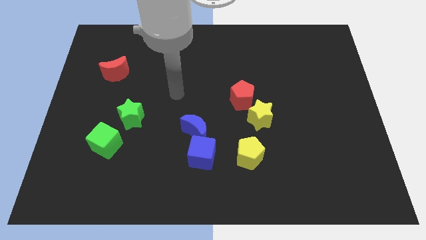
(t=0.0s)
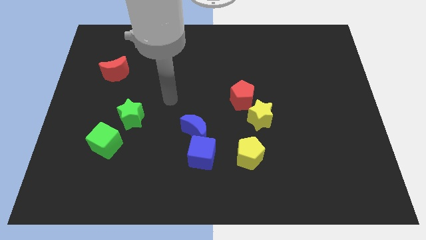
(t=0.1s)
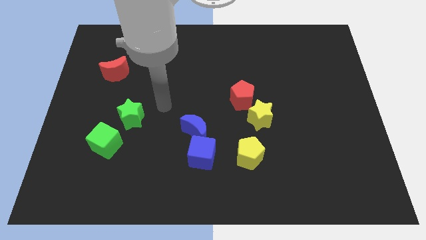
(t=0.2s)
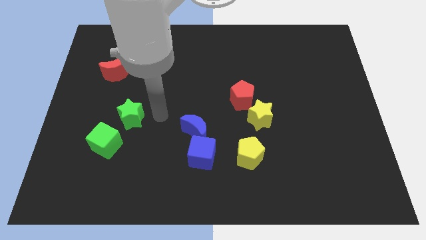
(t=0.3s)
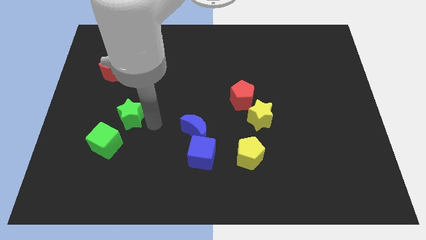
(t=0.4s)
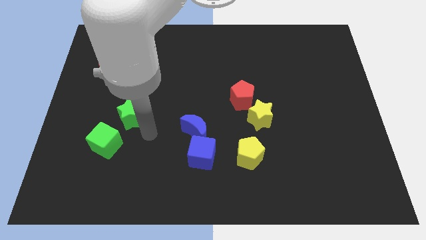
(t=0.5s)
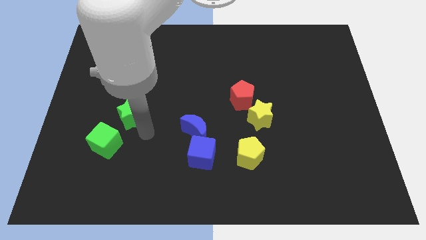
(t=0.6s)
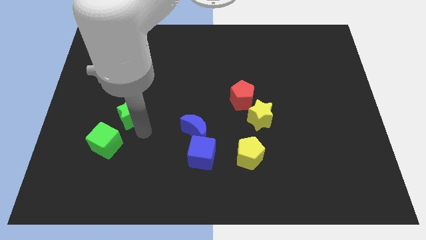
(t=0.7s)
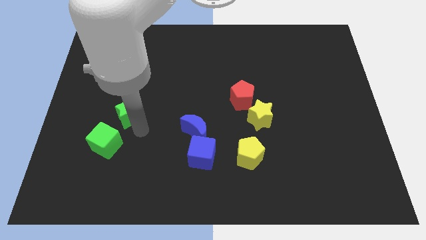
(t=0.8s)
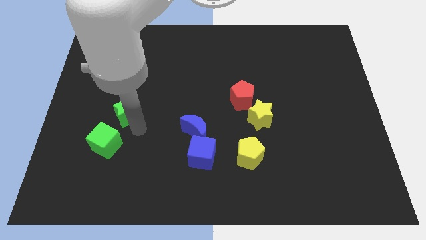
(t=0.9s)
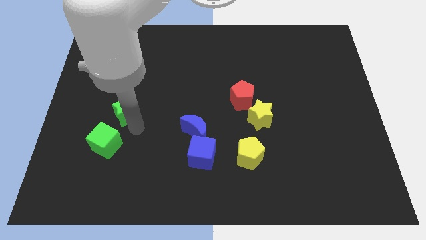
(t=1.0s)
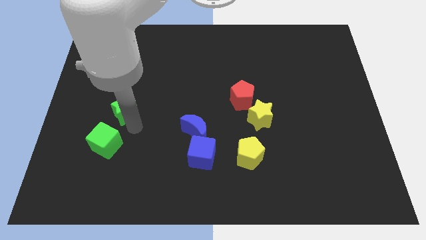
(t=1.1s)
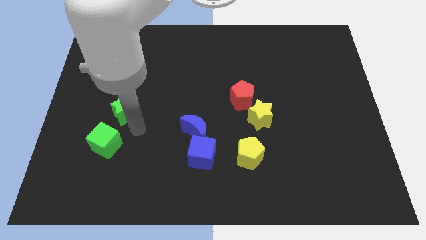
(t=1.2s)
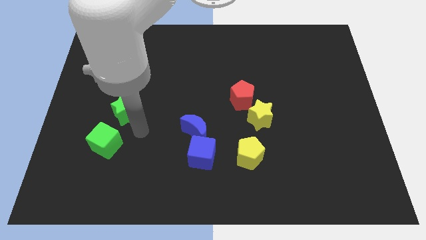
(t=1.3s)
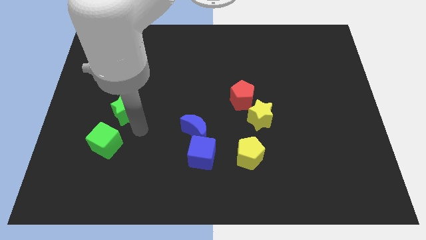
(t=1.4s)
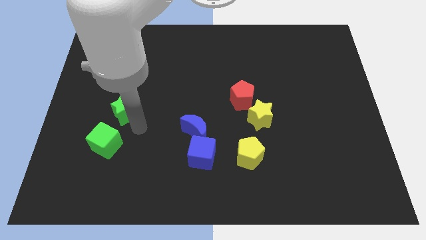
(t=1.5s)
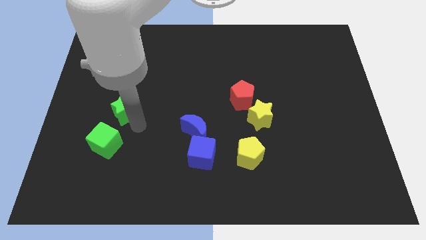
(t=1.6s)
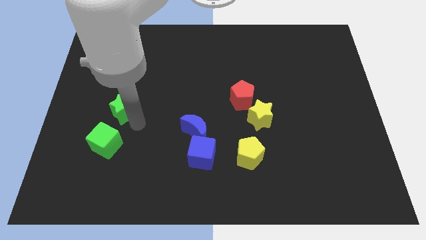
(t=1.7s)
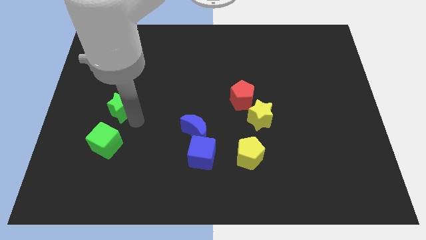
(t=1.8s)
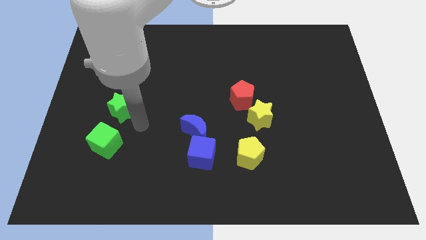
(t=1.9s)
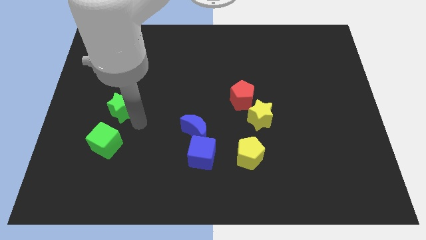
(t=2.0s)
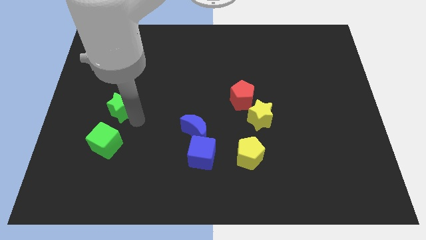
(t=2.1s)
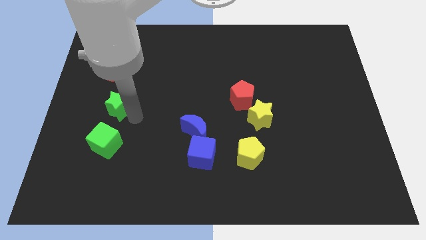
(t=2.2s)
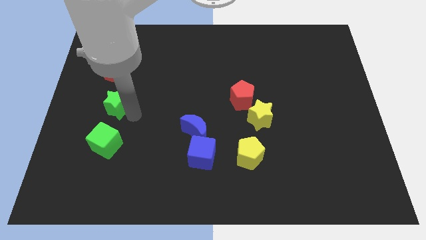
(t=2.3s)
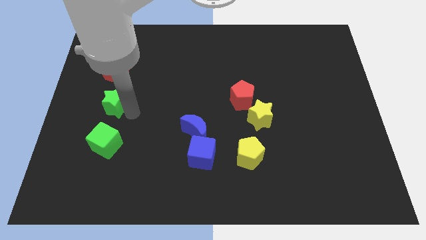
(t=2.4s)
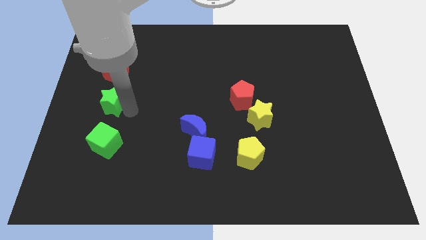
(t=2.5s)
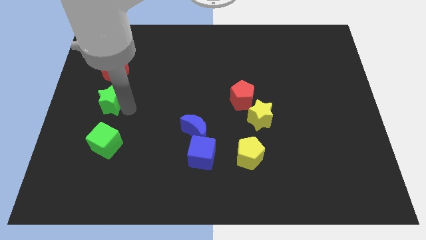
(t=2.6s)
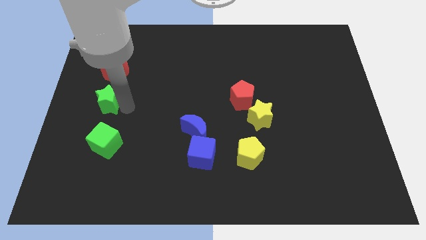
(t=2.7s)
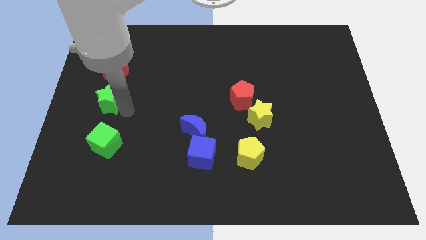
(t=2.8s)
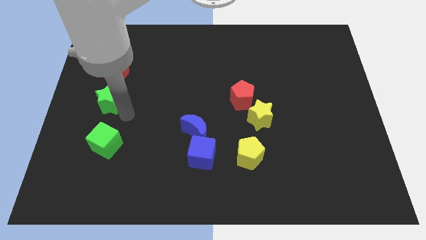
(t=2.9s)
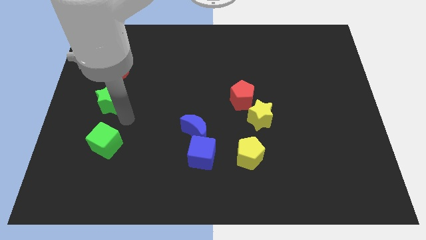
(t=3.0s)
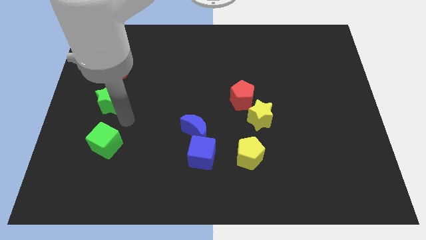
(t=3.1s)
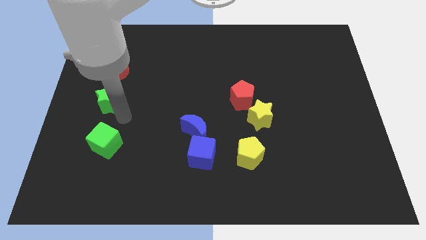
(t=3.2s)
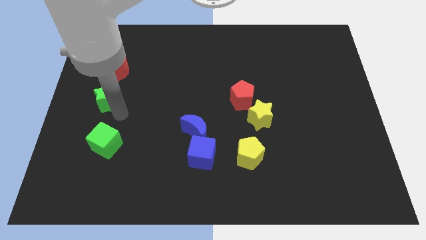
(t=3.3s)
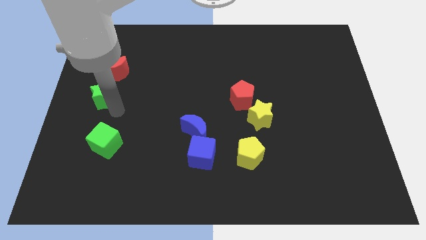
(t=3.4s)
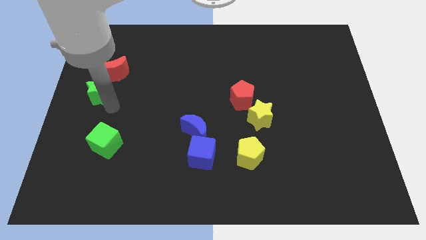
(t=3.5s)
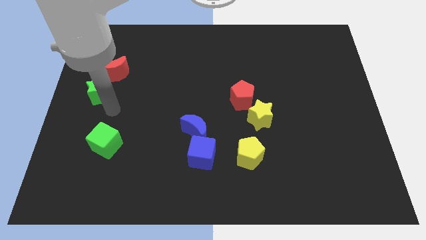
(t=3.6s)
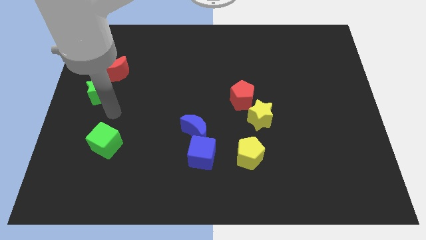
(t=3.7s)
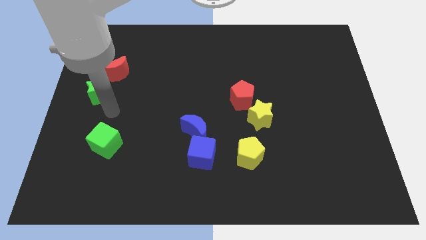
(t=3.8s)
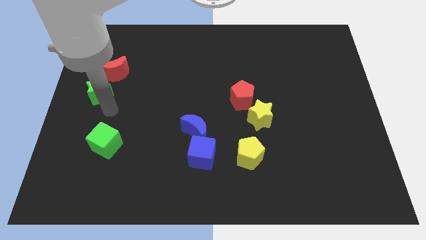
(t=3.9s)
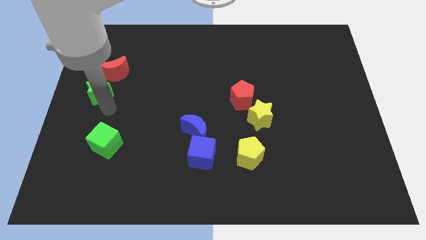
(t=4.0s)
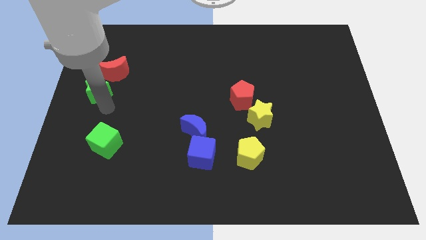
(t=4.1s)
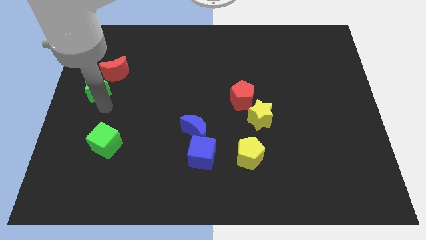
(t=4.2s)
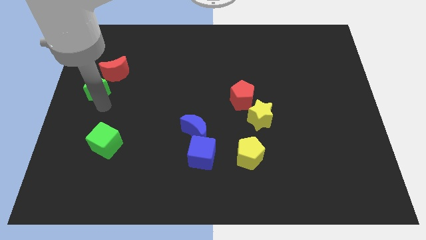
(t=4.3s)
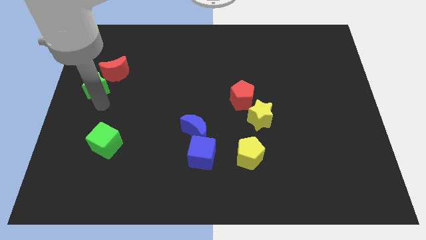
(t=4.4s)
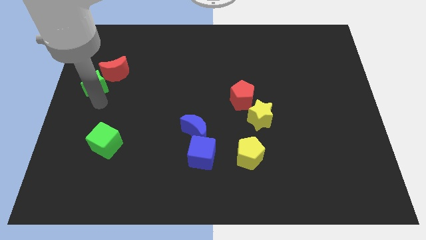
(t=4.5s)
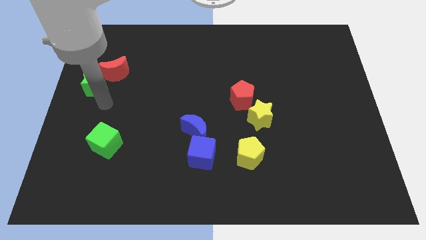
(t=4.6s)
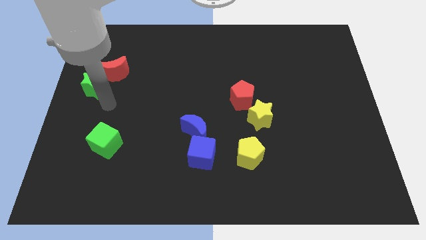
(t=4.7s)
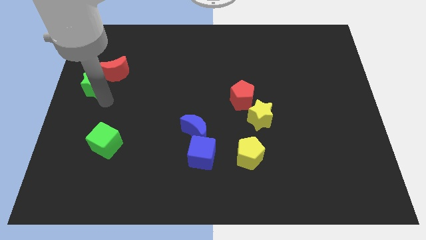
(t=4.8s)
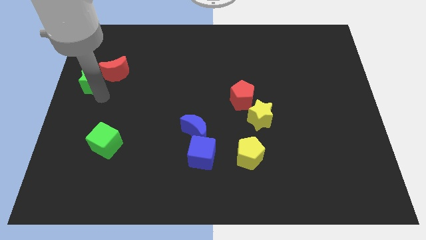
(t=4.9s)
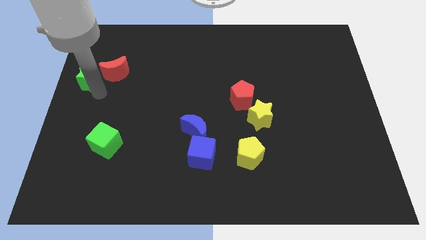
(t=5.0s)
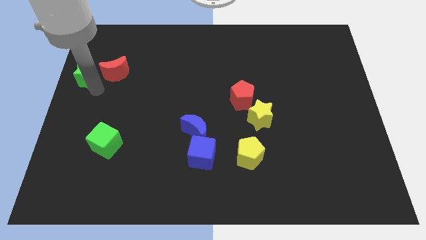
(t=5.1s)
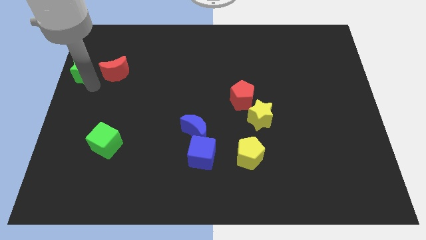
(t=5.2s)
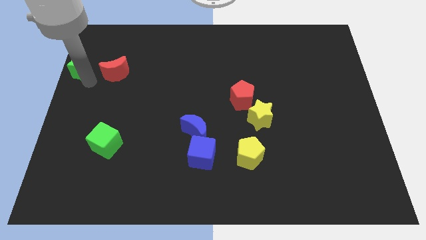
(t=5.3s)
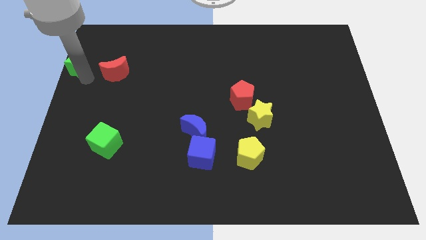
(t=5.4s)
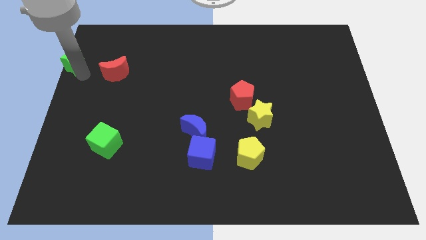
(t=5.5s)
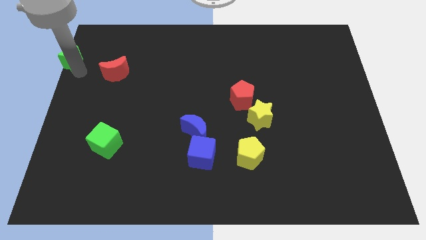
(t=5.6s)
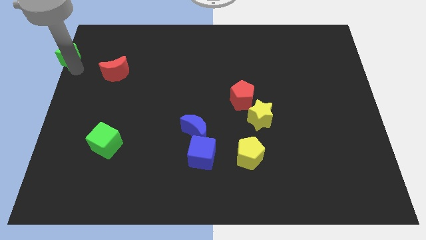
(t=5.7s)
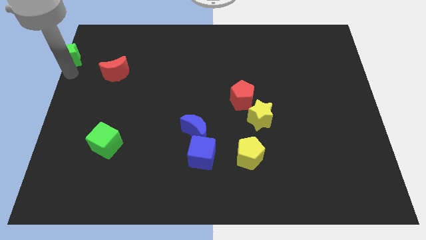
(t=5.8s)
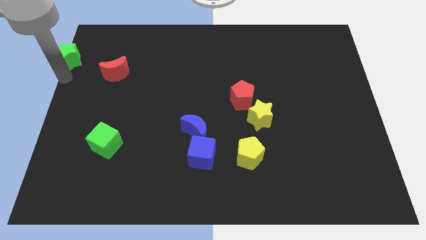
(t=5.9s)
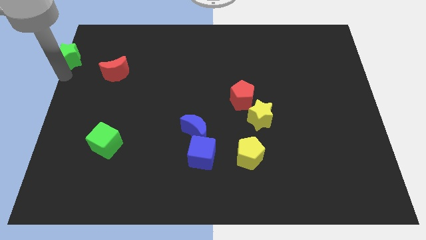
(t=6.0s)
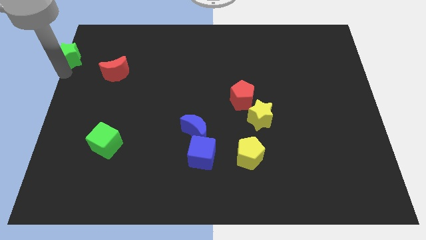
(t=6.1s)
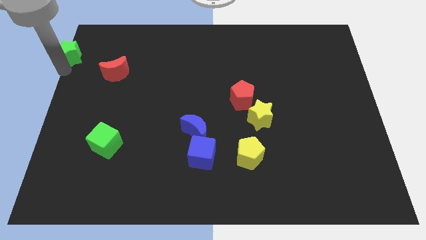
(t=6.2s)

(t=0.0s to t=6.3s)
slide the green star to the top left corner

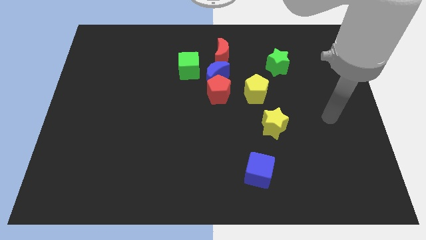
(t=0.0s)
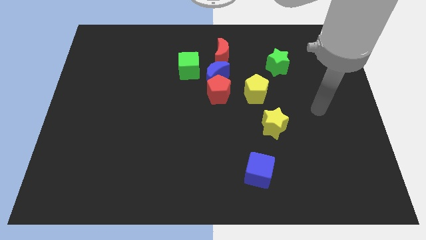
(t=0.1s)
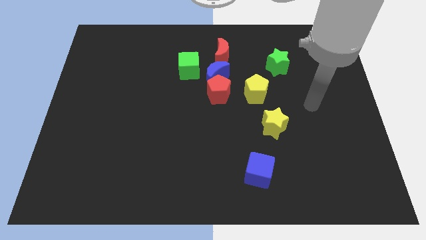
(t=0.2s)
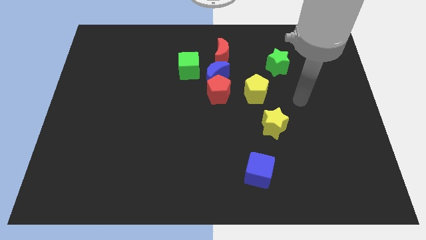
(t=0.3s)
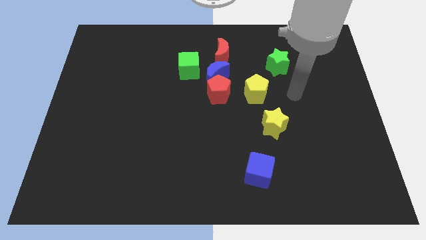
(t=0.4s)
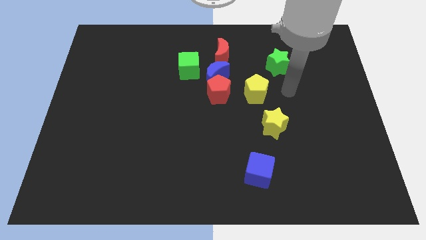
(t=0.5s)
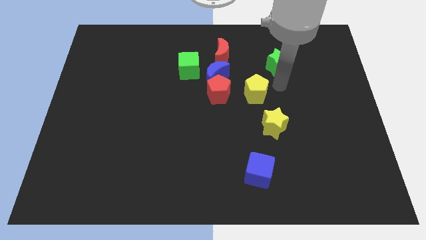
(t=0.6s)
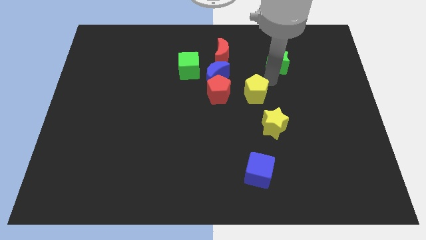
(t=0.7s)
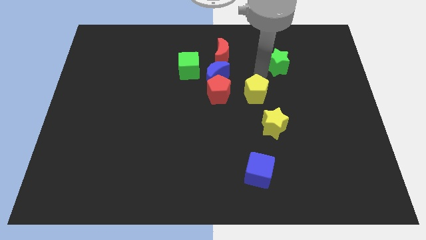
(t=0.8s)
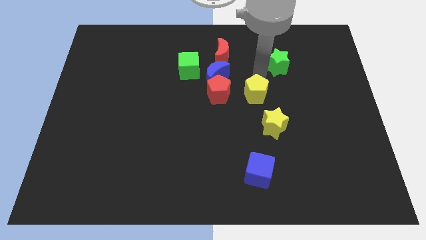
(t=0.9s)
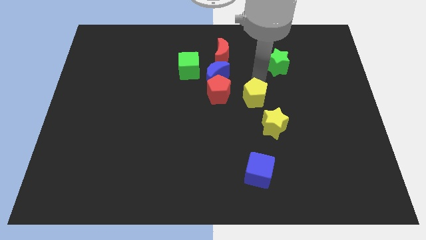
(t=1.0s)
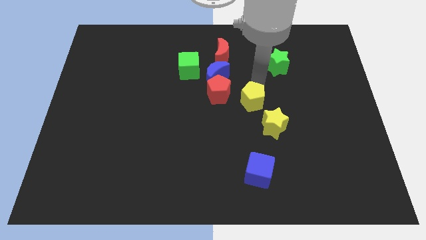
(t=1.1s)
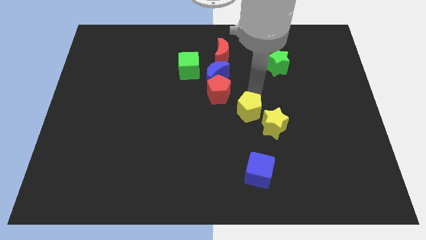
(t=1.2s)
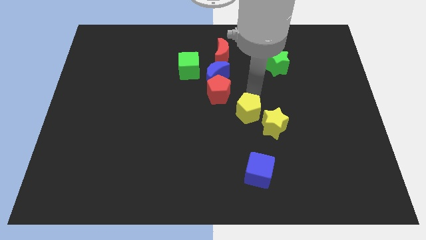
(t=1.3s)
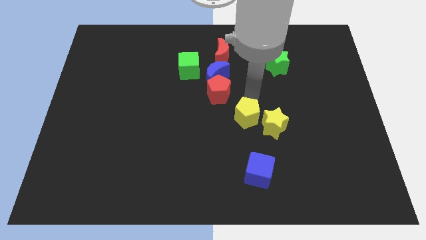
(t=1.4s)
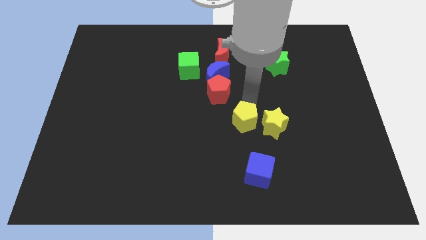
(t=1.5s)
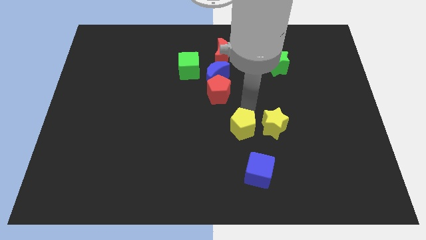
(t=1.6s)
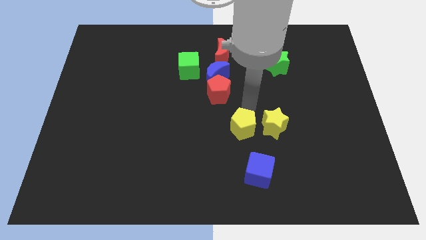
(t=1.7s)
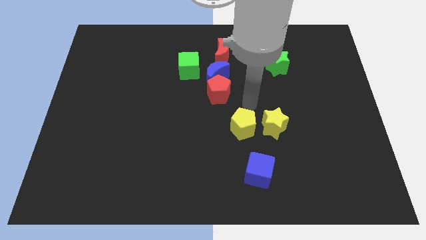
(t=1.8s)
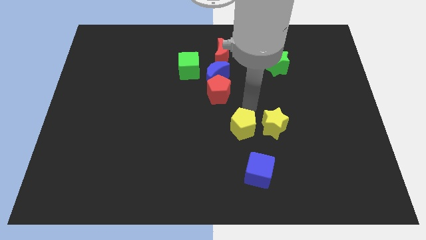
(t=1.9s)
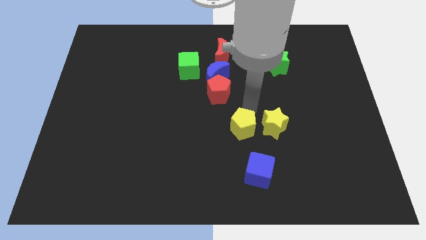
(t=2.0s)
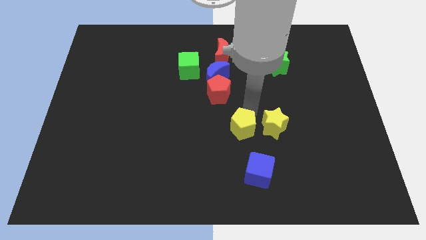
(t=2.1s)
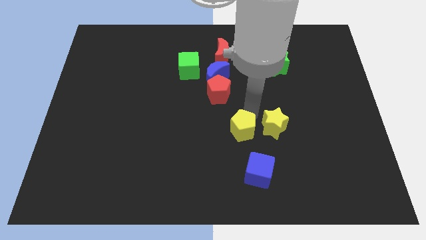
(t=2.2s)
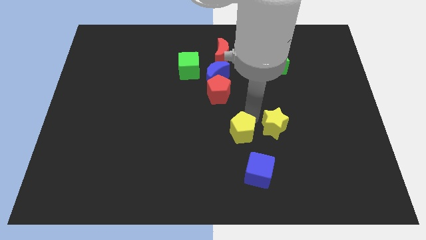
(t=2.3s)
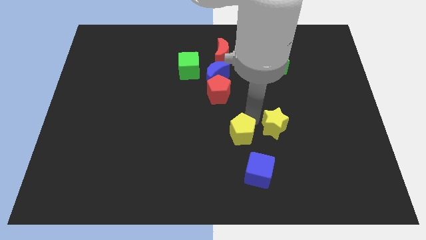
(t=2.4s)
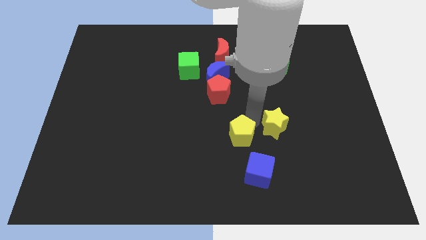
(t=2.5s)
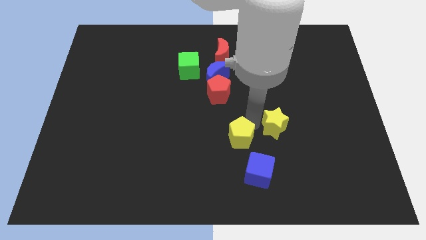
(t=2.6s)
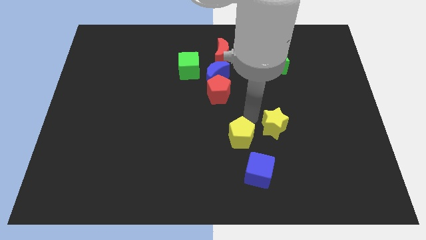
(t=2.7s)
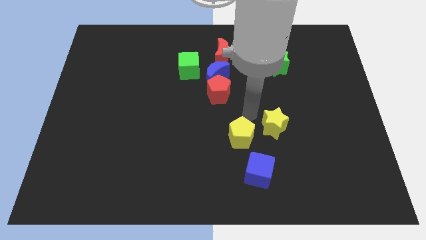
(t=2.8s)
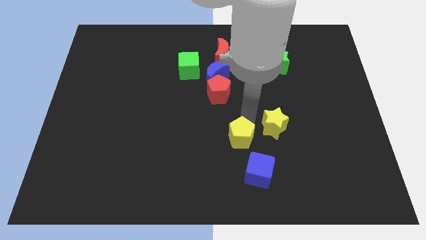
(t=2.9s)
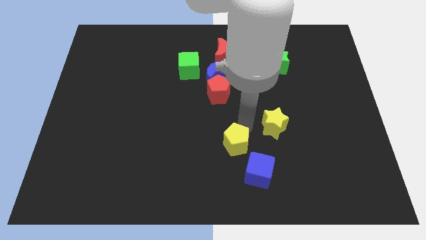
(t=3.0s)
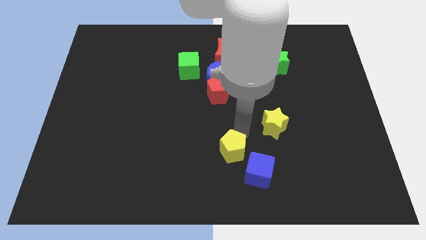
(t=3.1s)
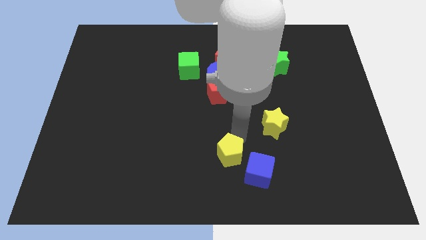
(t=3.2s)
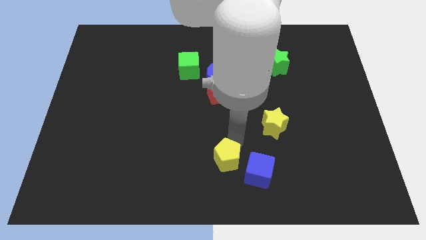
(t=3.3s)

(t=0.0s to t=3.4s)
put the yellow pentagon to the bottom side
